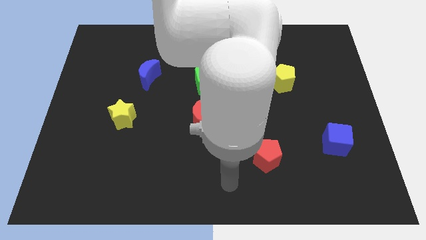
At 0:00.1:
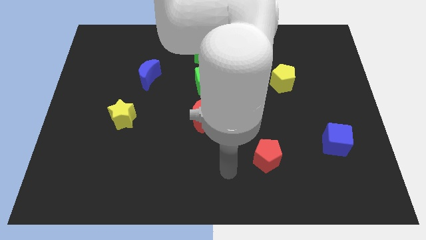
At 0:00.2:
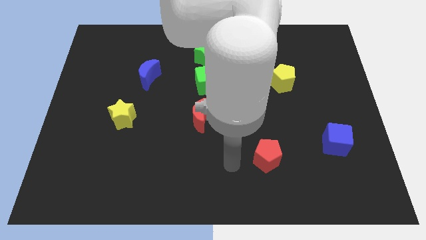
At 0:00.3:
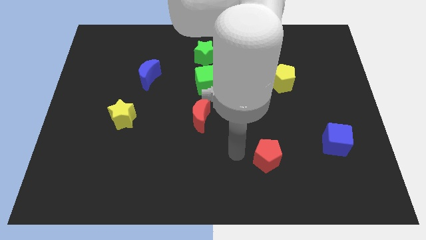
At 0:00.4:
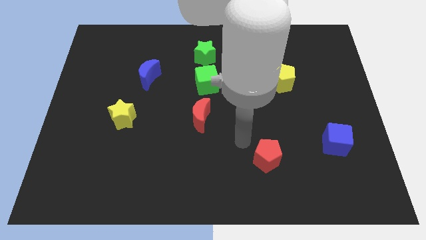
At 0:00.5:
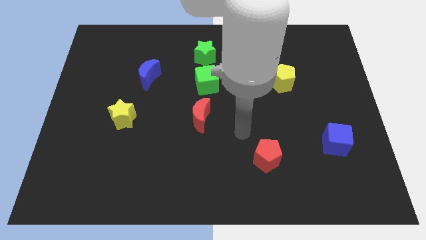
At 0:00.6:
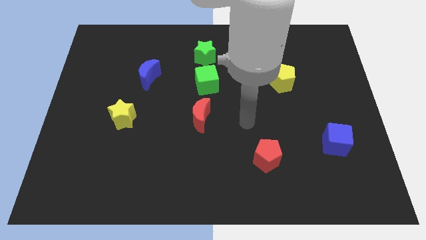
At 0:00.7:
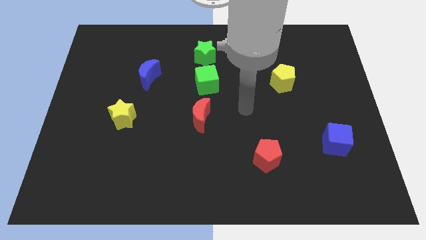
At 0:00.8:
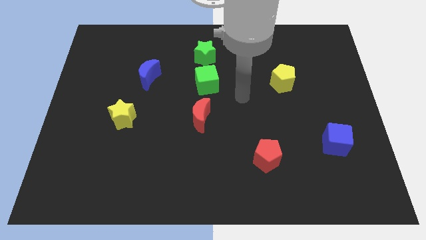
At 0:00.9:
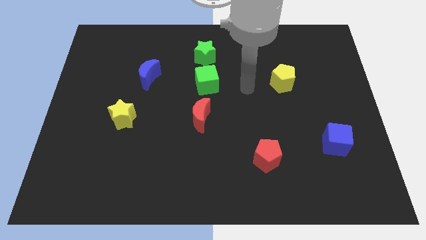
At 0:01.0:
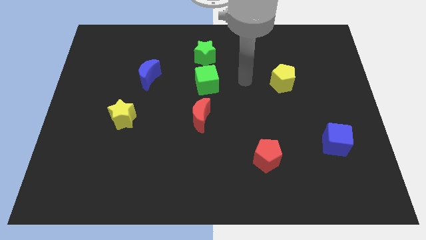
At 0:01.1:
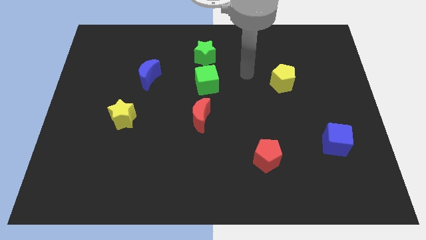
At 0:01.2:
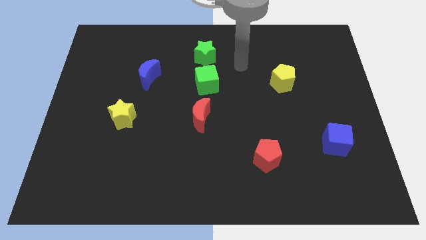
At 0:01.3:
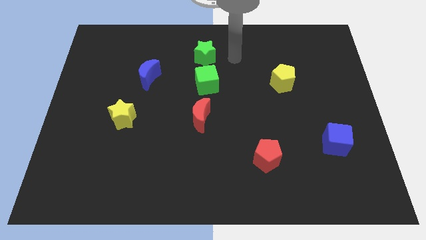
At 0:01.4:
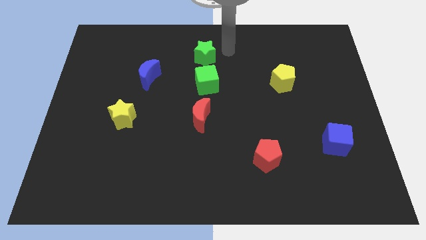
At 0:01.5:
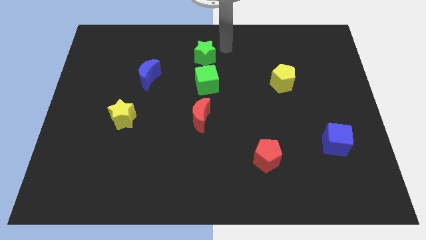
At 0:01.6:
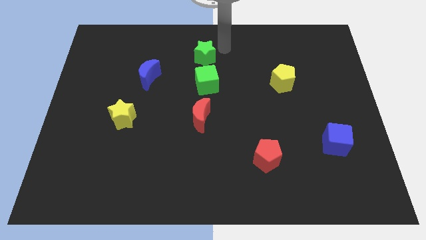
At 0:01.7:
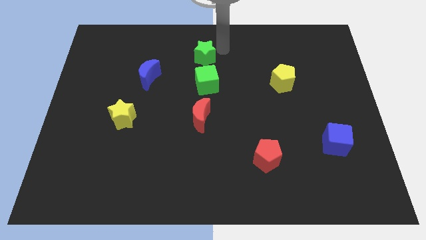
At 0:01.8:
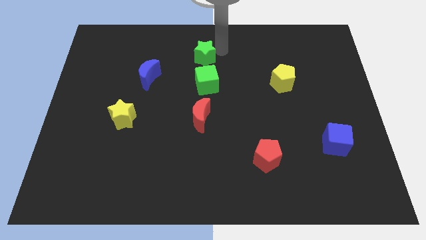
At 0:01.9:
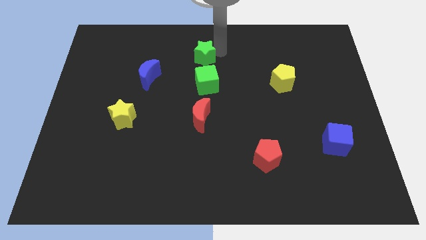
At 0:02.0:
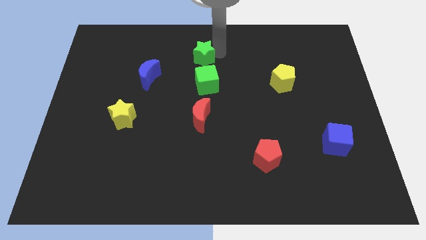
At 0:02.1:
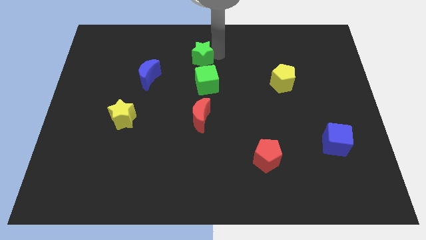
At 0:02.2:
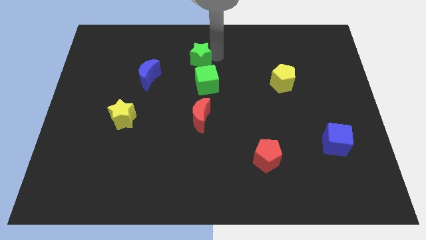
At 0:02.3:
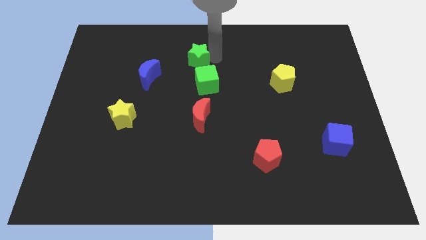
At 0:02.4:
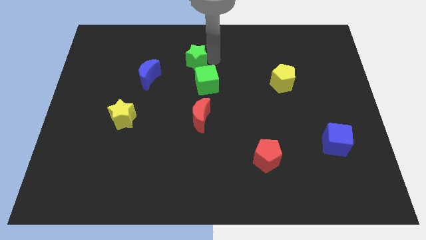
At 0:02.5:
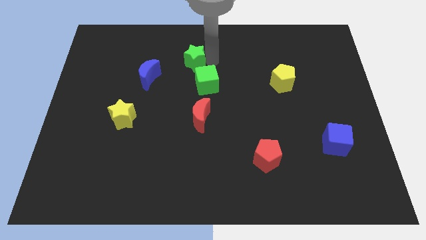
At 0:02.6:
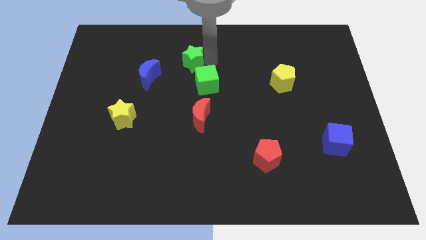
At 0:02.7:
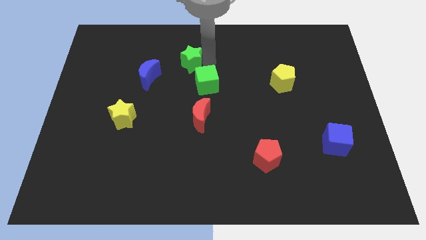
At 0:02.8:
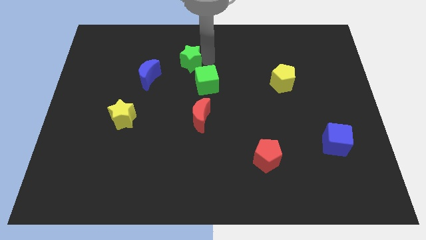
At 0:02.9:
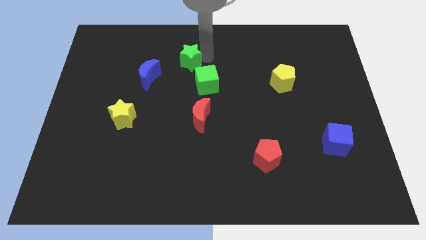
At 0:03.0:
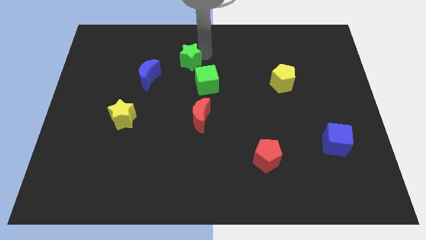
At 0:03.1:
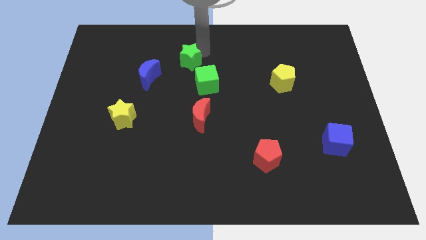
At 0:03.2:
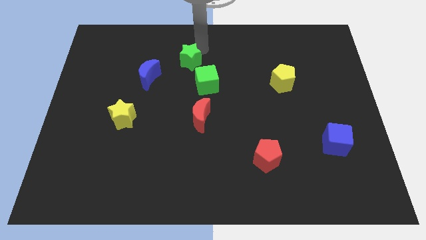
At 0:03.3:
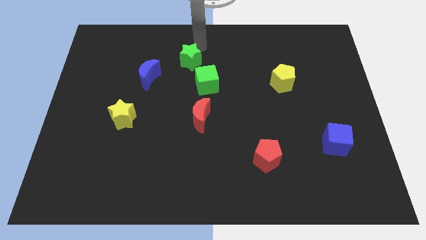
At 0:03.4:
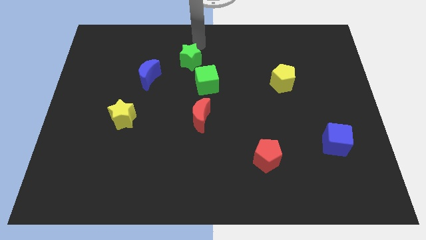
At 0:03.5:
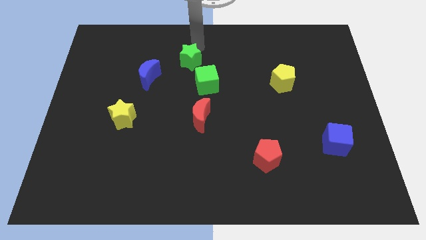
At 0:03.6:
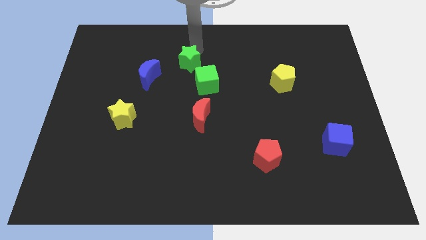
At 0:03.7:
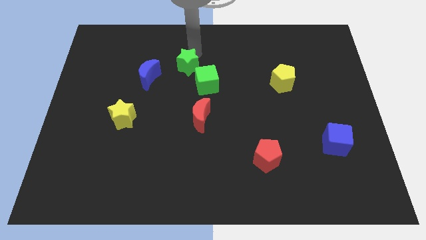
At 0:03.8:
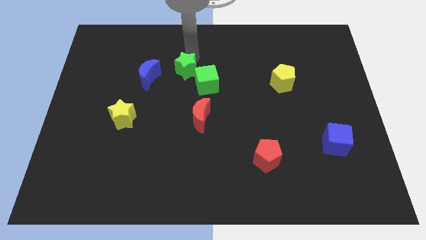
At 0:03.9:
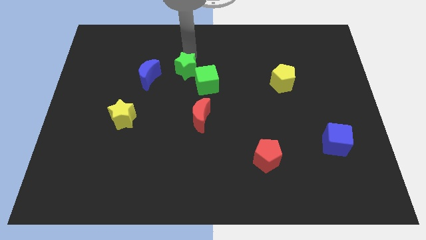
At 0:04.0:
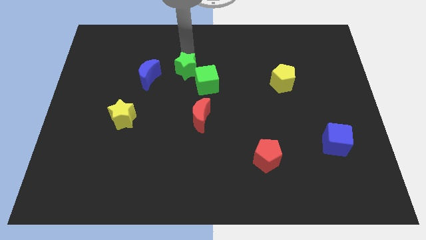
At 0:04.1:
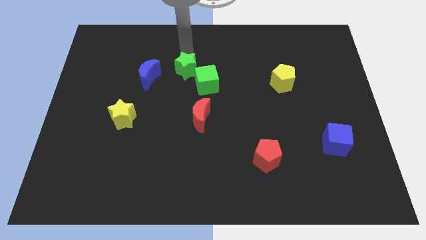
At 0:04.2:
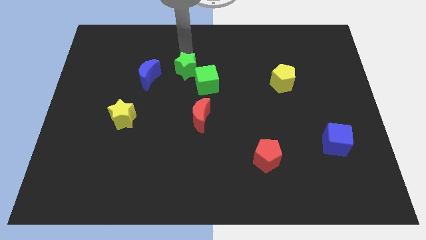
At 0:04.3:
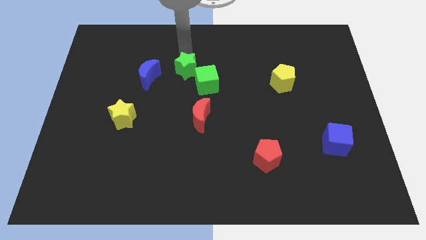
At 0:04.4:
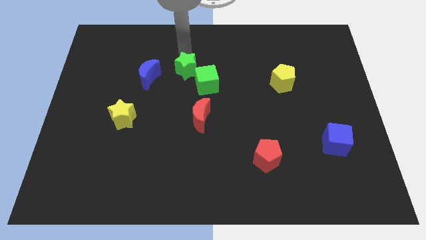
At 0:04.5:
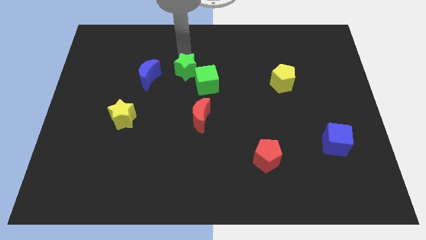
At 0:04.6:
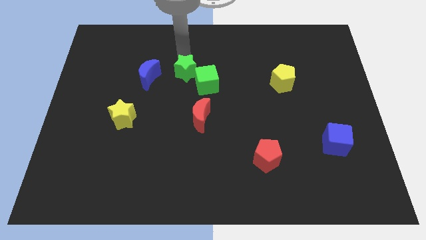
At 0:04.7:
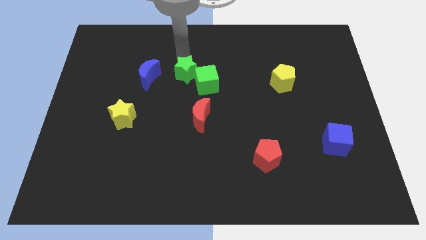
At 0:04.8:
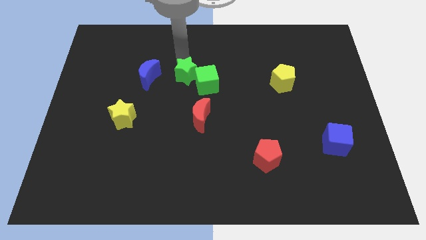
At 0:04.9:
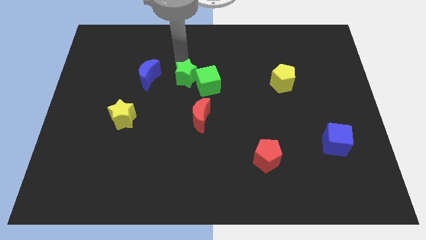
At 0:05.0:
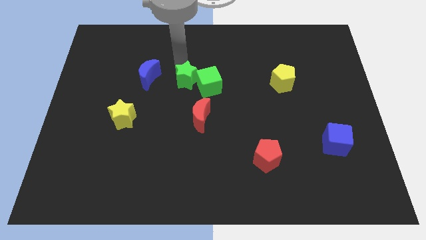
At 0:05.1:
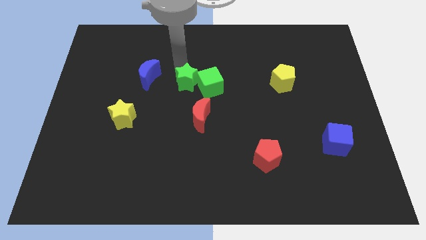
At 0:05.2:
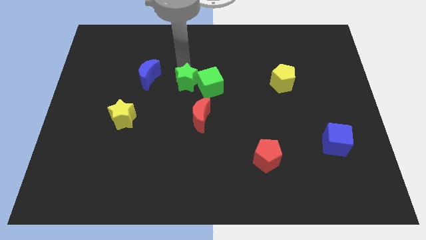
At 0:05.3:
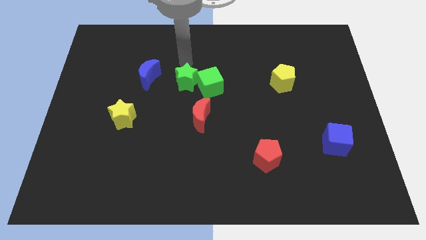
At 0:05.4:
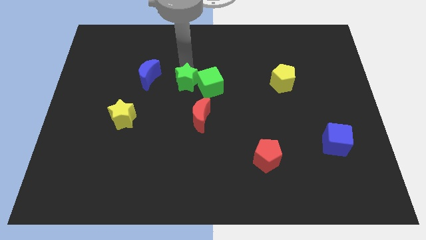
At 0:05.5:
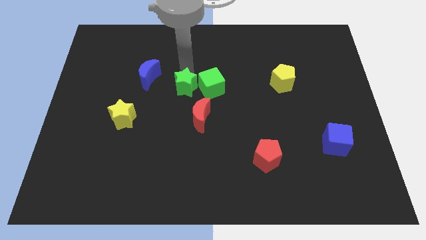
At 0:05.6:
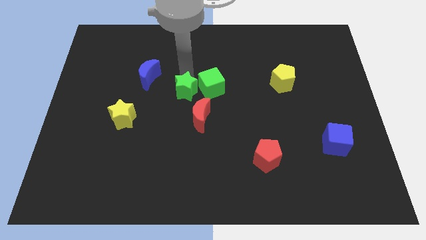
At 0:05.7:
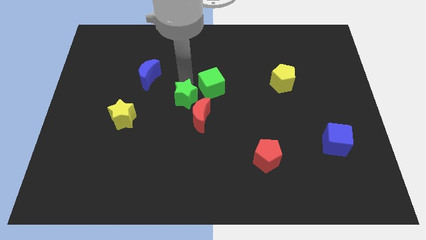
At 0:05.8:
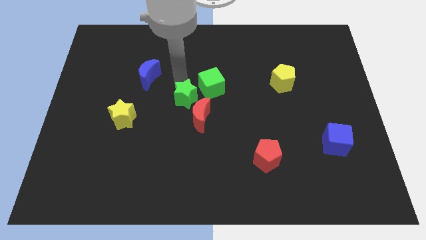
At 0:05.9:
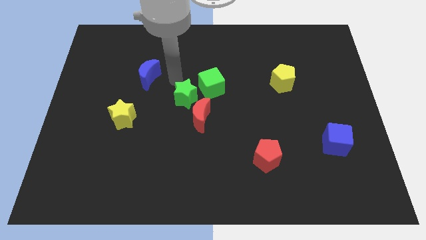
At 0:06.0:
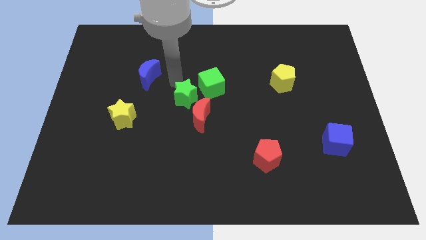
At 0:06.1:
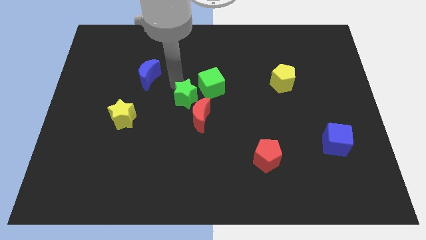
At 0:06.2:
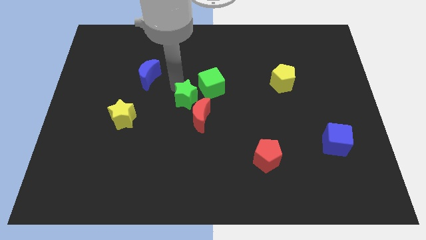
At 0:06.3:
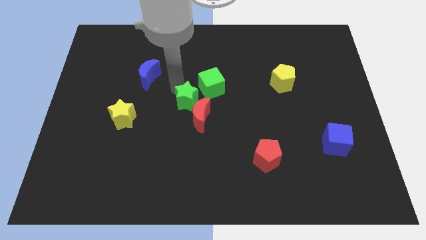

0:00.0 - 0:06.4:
move the green star towards the red moon

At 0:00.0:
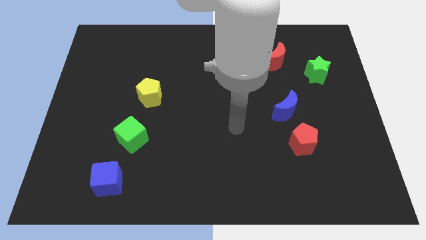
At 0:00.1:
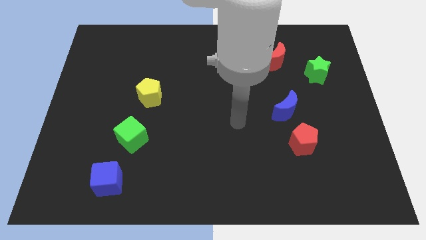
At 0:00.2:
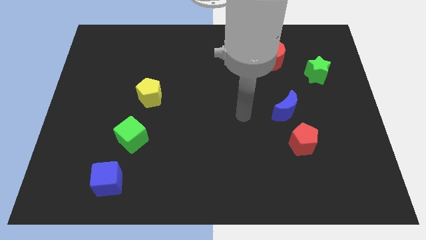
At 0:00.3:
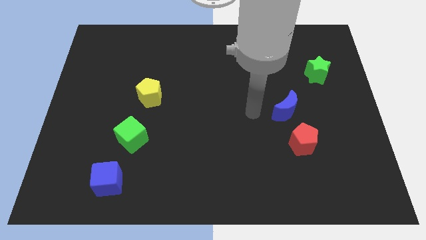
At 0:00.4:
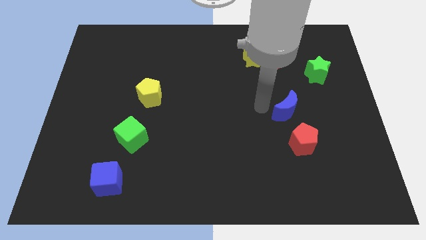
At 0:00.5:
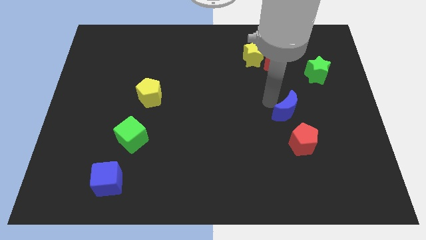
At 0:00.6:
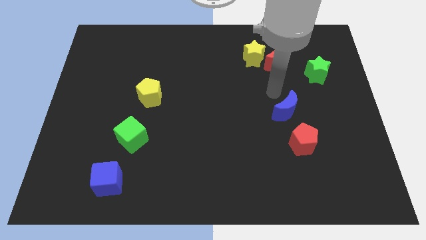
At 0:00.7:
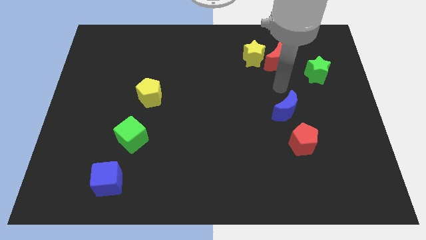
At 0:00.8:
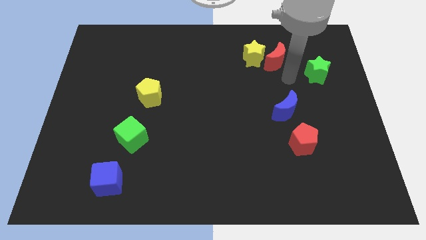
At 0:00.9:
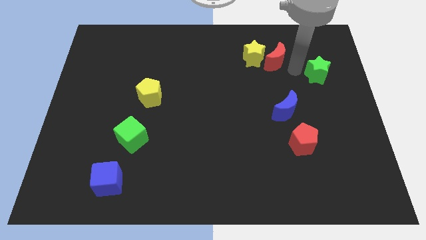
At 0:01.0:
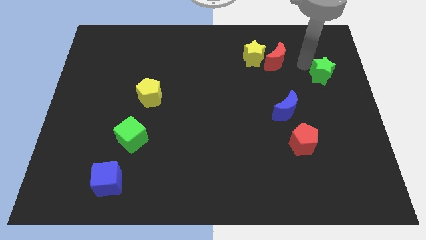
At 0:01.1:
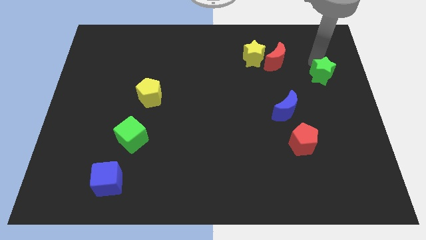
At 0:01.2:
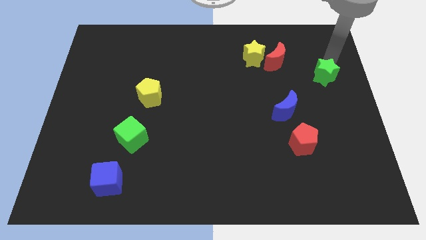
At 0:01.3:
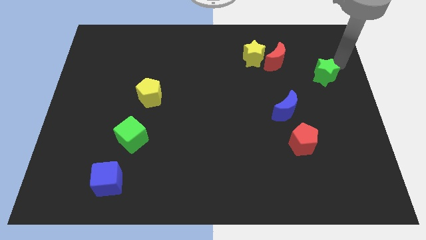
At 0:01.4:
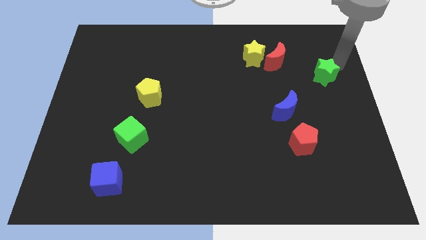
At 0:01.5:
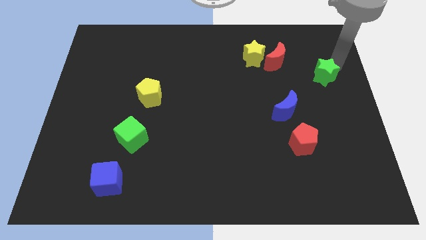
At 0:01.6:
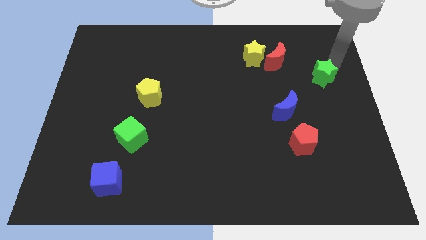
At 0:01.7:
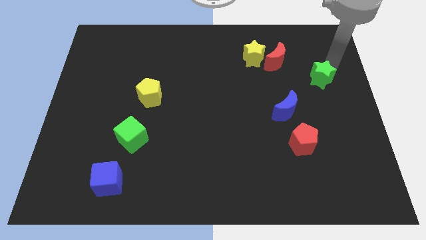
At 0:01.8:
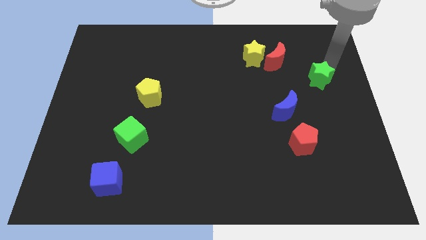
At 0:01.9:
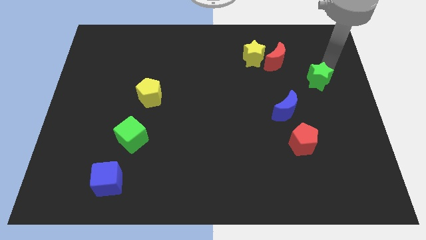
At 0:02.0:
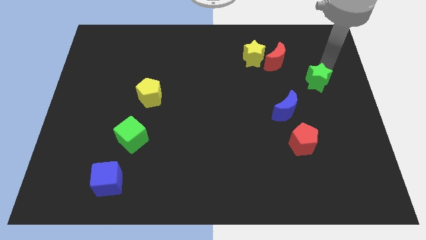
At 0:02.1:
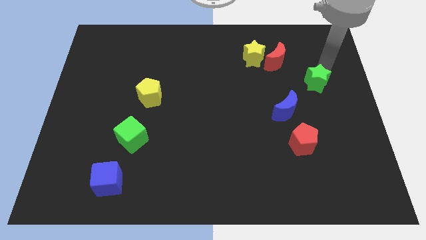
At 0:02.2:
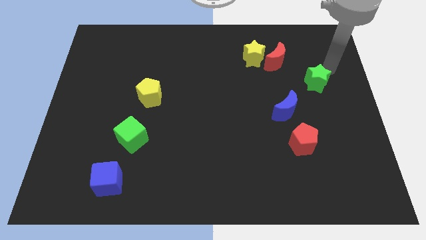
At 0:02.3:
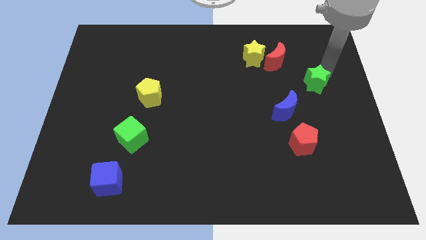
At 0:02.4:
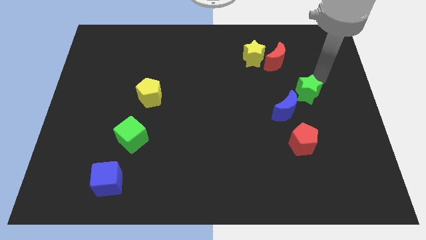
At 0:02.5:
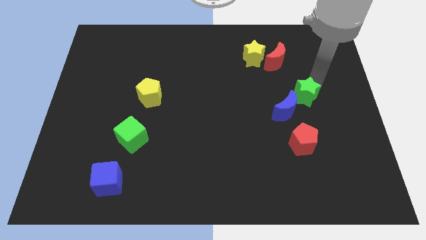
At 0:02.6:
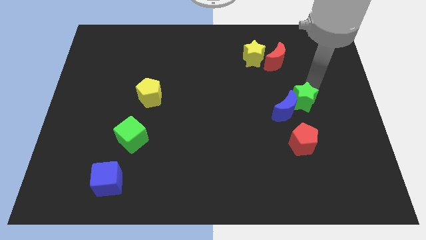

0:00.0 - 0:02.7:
slide the green star to the blue moon
